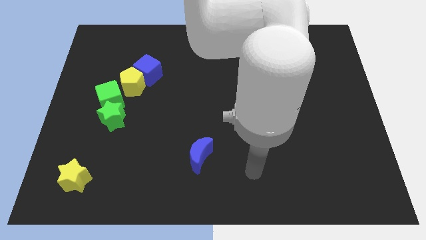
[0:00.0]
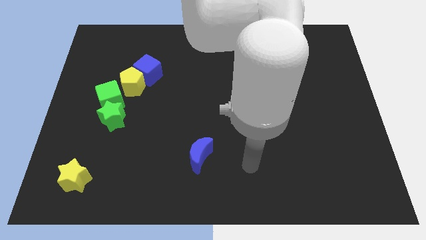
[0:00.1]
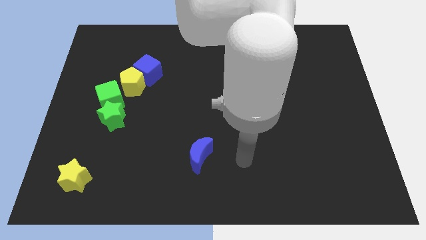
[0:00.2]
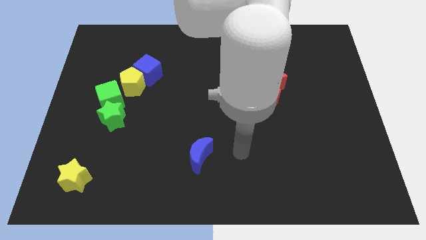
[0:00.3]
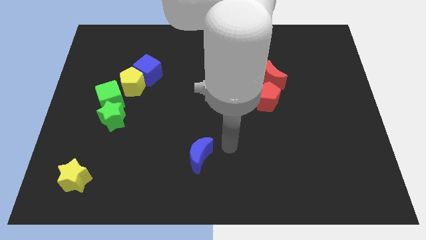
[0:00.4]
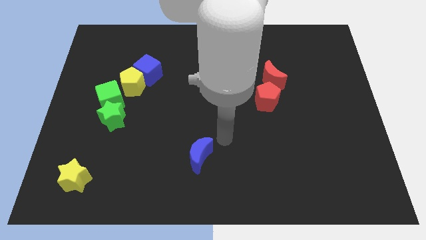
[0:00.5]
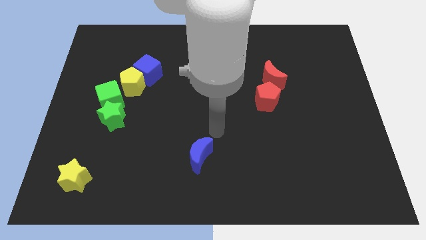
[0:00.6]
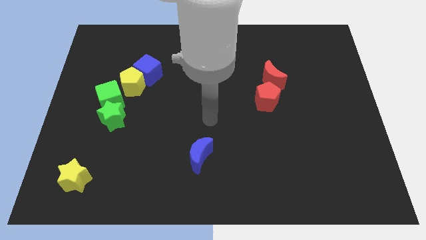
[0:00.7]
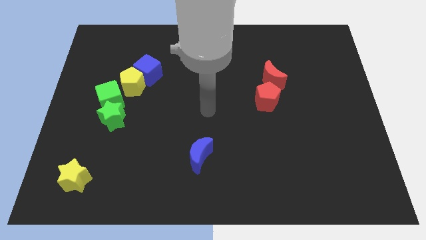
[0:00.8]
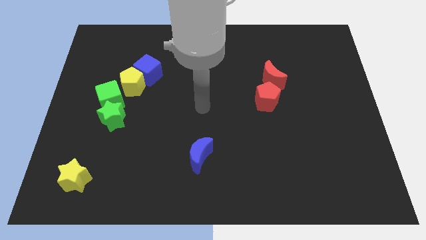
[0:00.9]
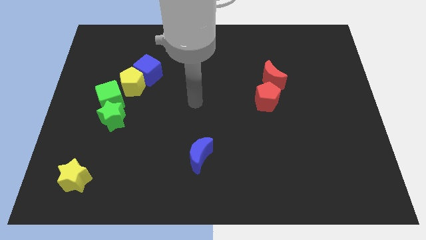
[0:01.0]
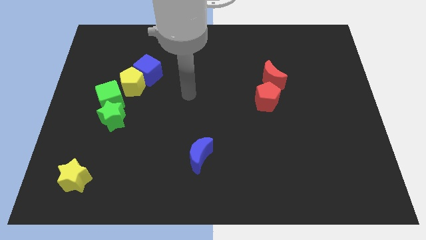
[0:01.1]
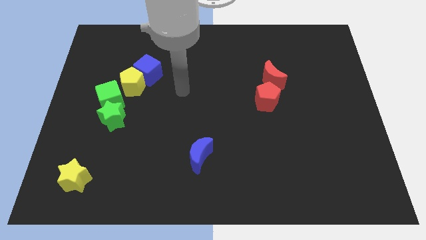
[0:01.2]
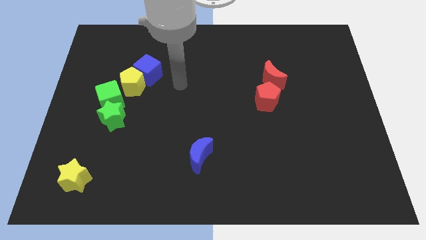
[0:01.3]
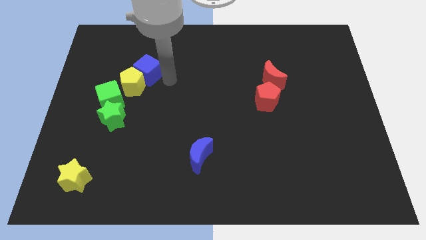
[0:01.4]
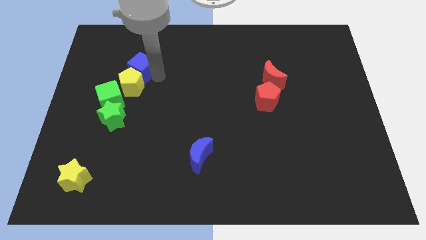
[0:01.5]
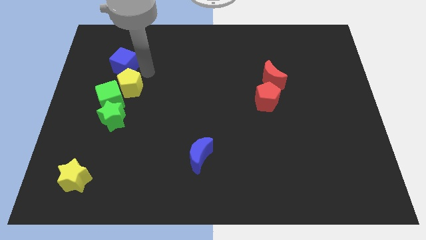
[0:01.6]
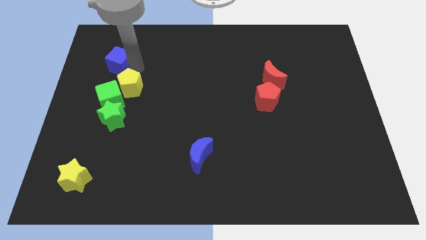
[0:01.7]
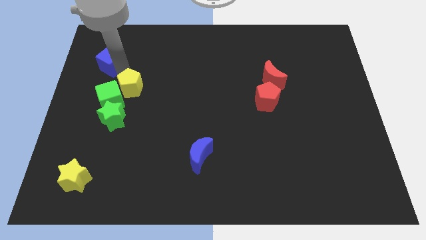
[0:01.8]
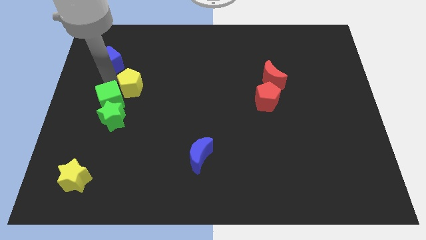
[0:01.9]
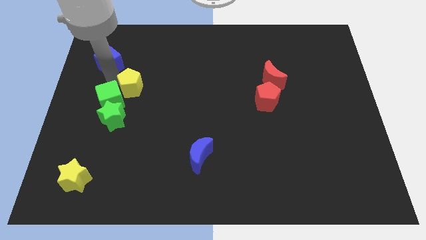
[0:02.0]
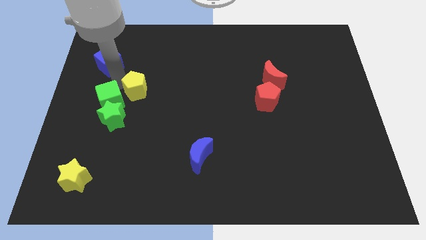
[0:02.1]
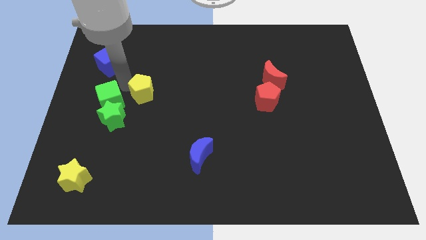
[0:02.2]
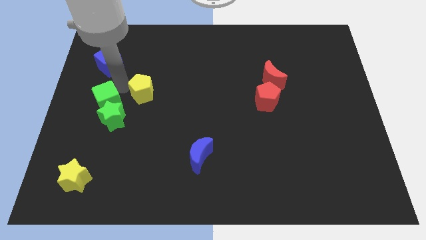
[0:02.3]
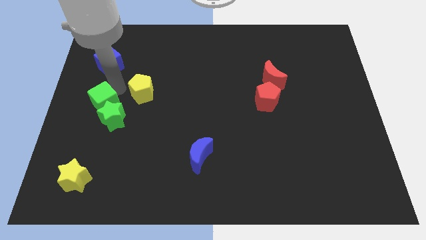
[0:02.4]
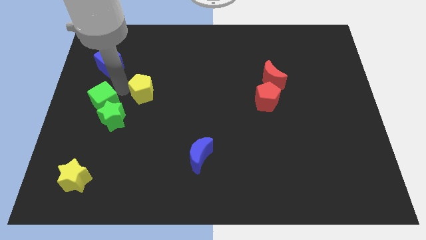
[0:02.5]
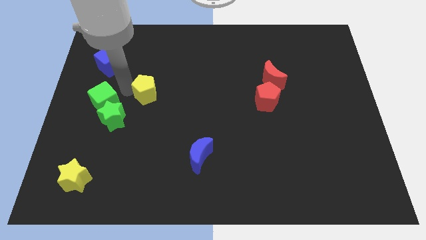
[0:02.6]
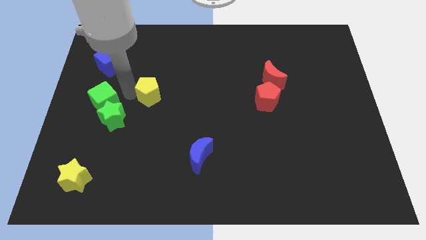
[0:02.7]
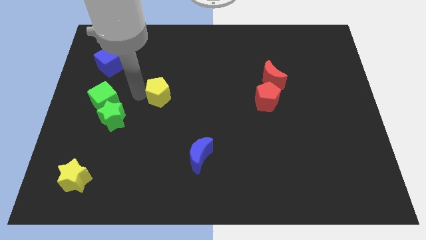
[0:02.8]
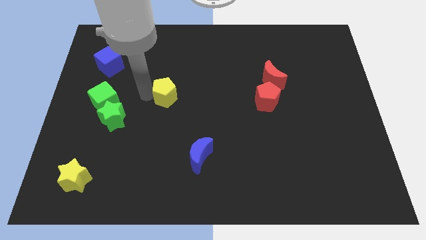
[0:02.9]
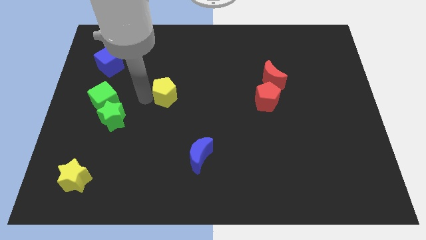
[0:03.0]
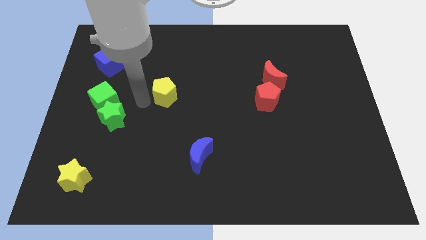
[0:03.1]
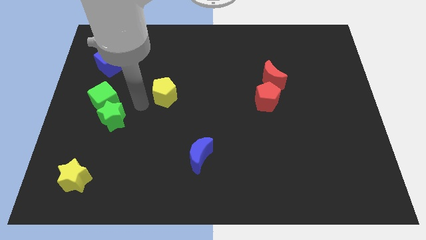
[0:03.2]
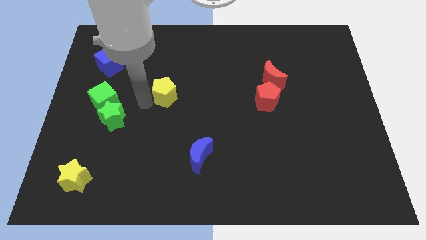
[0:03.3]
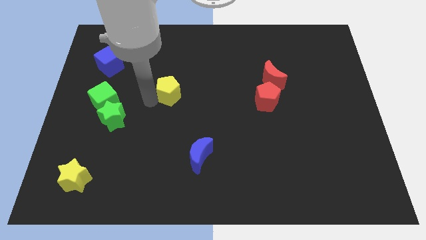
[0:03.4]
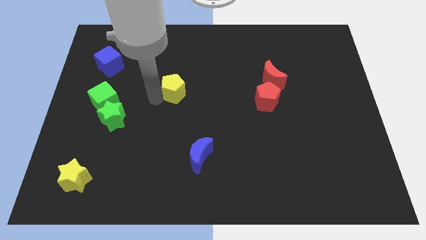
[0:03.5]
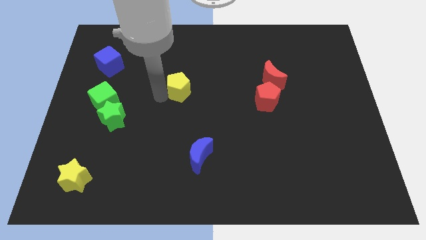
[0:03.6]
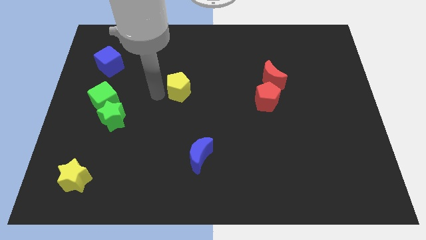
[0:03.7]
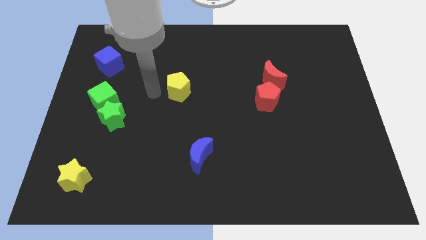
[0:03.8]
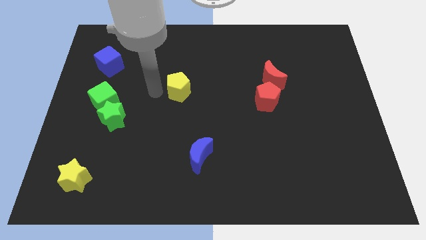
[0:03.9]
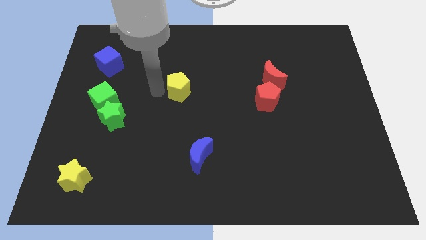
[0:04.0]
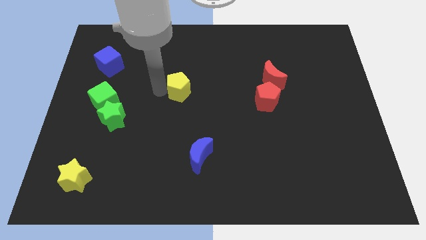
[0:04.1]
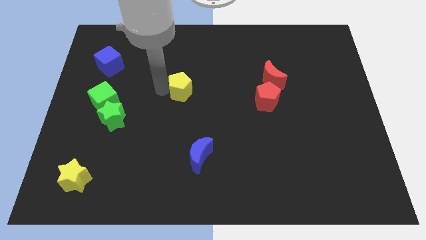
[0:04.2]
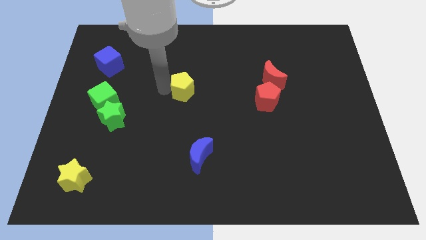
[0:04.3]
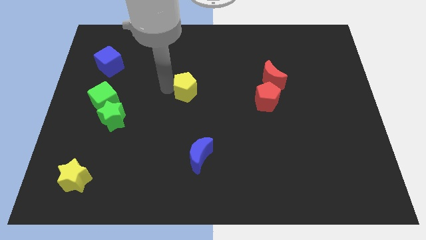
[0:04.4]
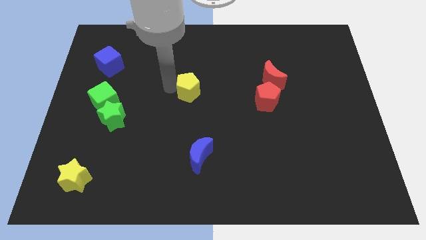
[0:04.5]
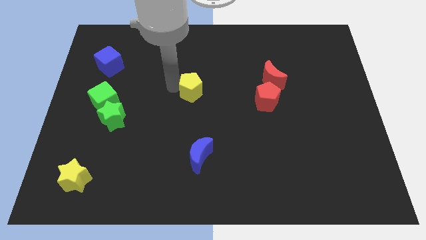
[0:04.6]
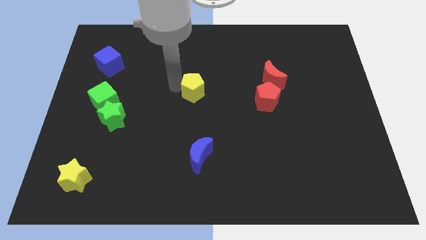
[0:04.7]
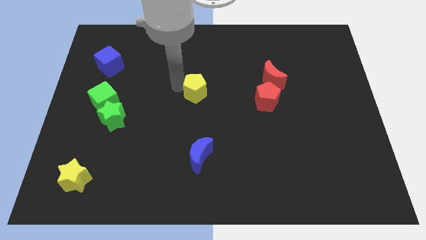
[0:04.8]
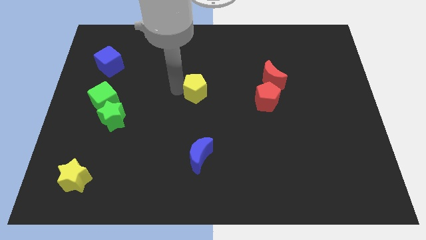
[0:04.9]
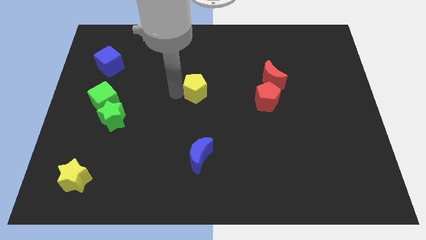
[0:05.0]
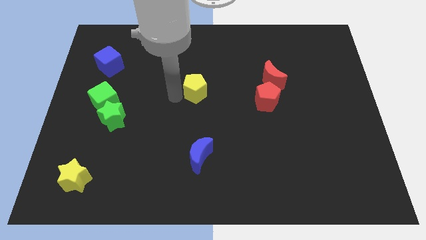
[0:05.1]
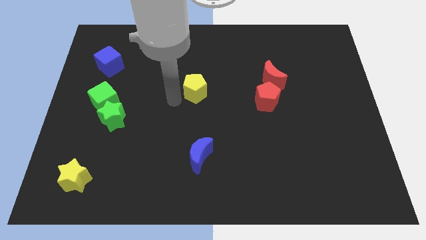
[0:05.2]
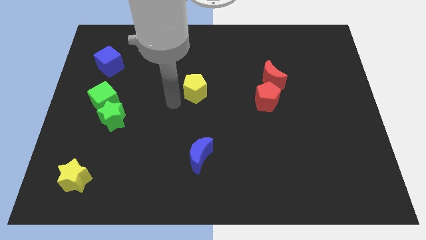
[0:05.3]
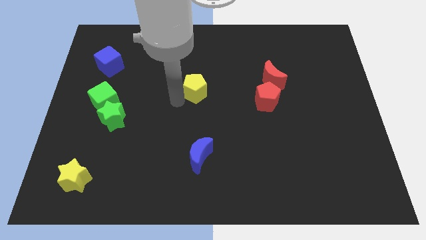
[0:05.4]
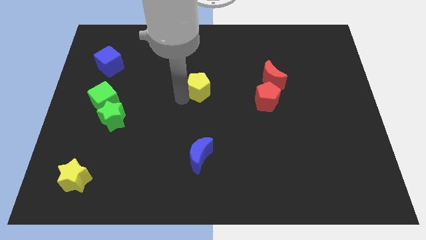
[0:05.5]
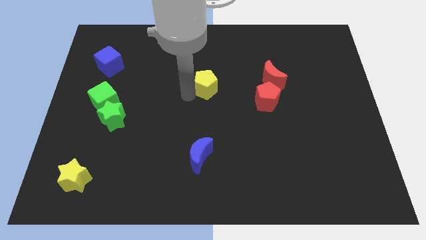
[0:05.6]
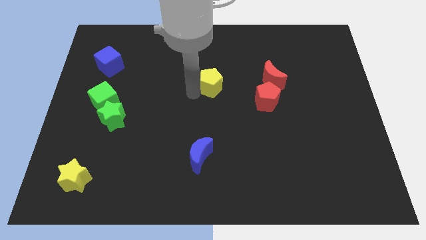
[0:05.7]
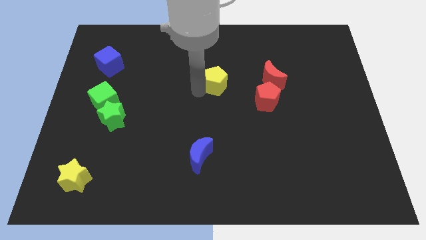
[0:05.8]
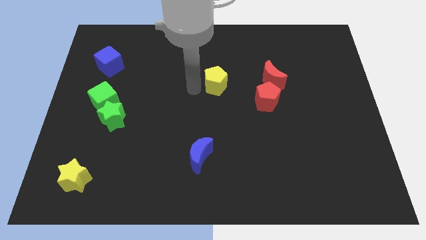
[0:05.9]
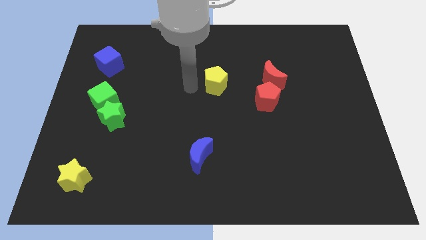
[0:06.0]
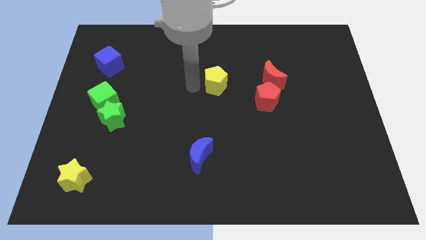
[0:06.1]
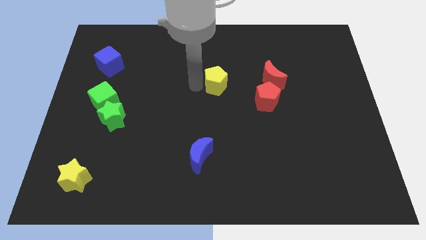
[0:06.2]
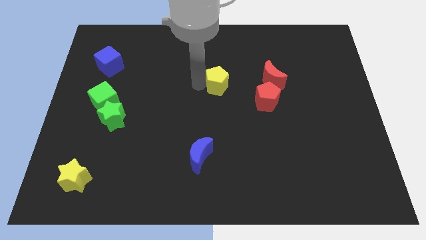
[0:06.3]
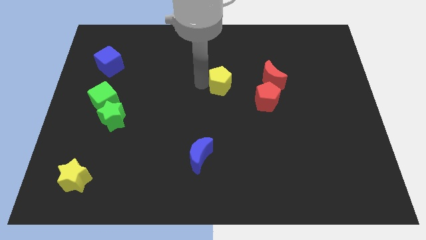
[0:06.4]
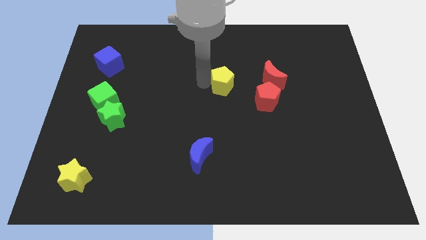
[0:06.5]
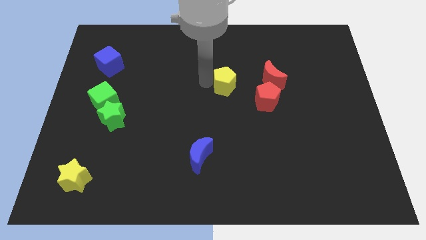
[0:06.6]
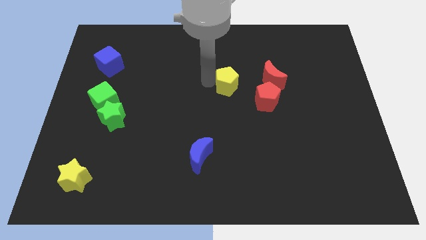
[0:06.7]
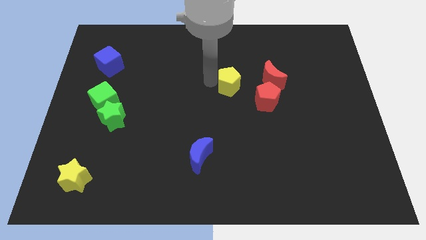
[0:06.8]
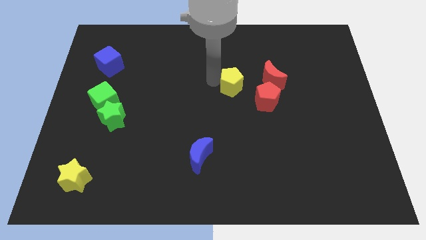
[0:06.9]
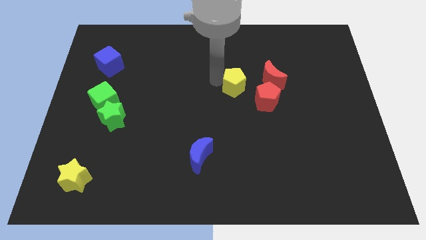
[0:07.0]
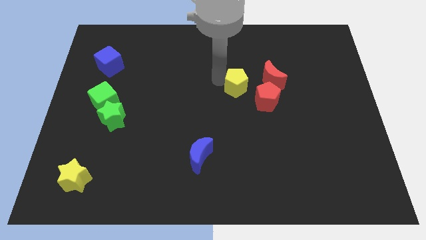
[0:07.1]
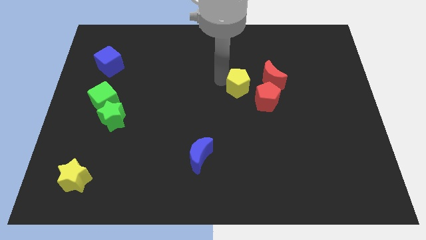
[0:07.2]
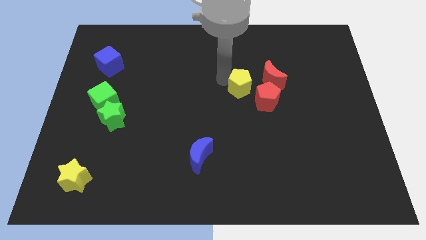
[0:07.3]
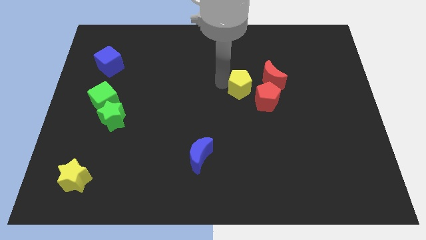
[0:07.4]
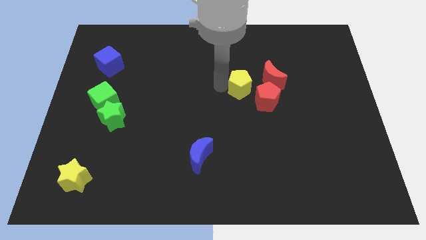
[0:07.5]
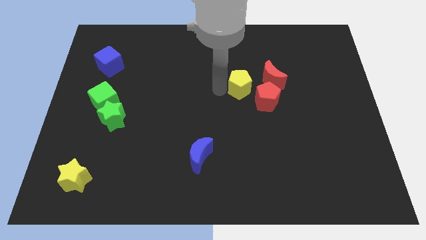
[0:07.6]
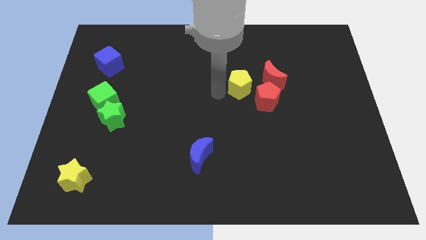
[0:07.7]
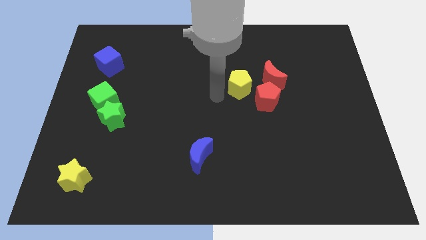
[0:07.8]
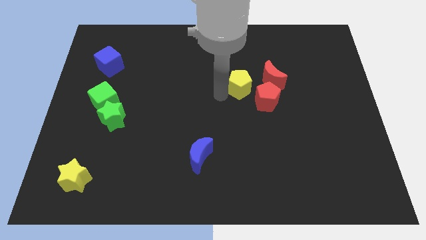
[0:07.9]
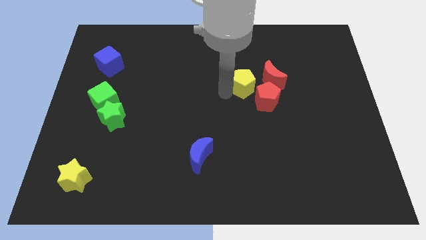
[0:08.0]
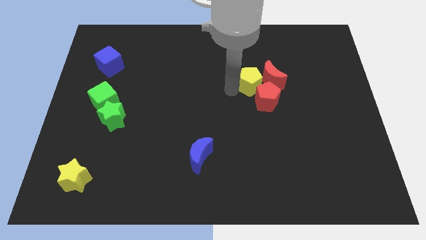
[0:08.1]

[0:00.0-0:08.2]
push the yellow pentagon to the red moon
